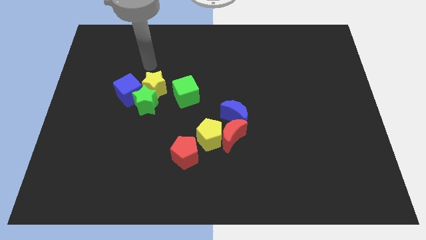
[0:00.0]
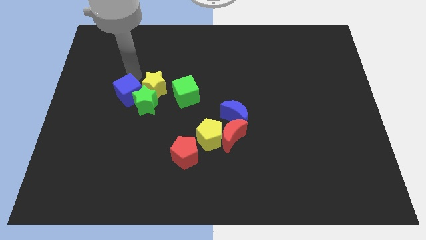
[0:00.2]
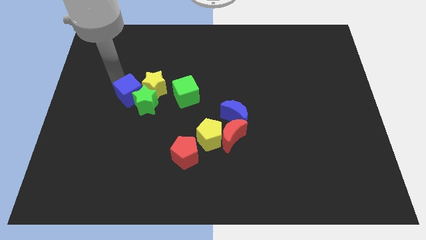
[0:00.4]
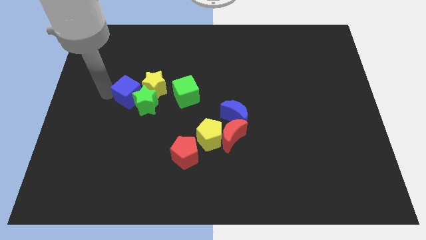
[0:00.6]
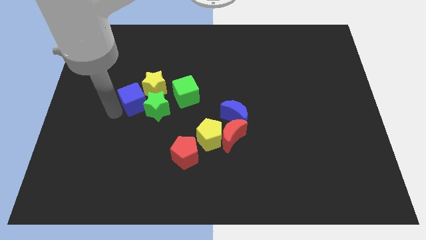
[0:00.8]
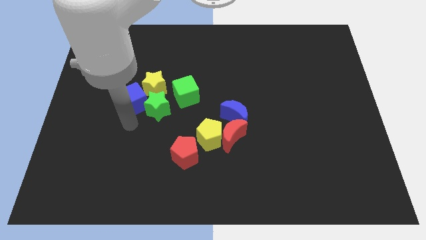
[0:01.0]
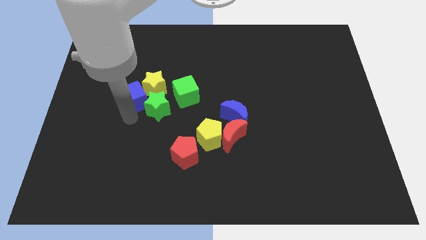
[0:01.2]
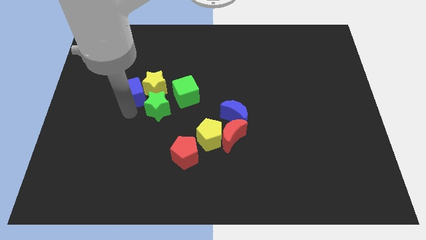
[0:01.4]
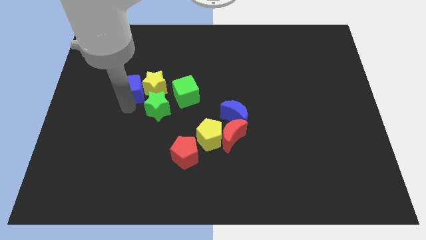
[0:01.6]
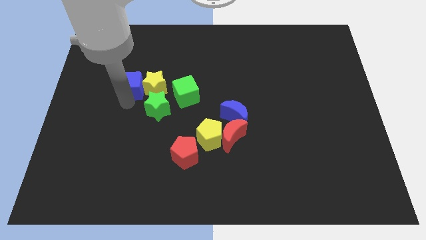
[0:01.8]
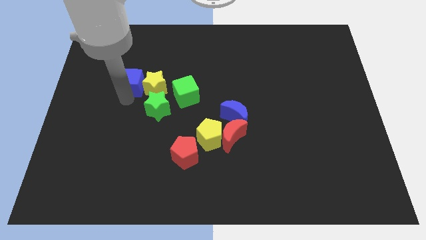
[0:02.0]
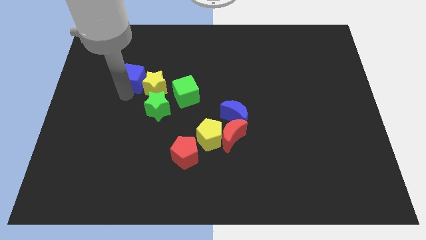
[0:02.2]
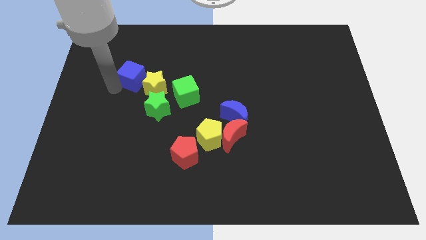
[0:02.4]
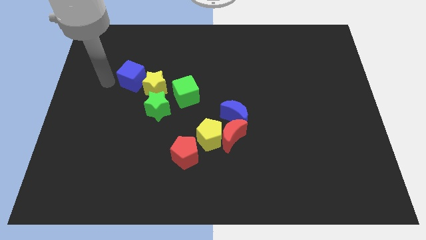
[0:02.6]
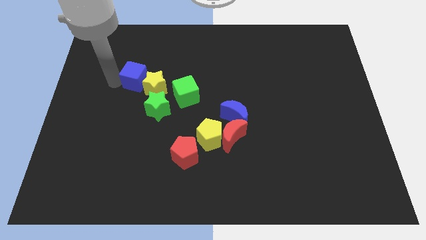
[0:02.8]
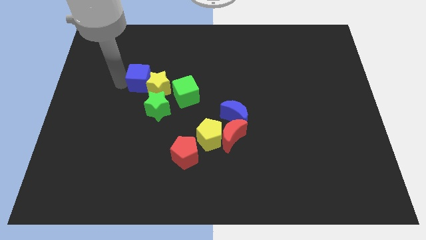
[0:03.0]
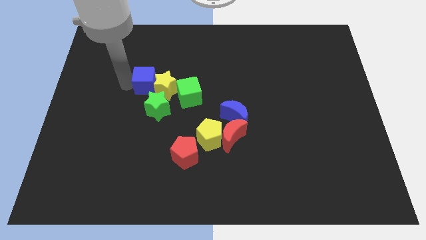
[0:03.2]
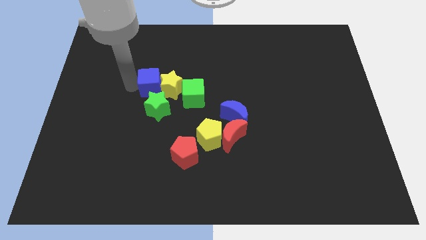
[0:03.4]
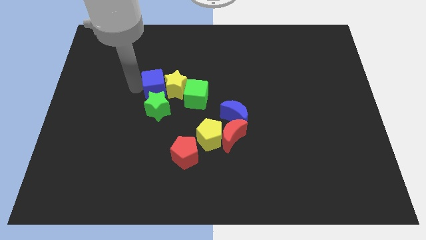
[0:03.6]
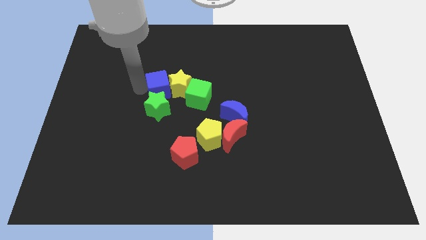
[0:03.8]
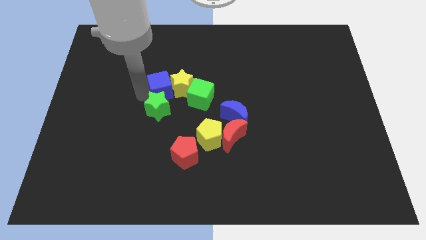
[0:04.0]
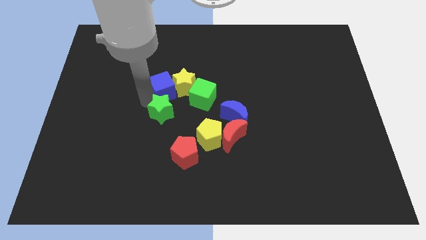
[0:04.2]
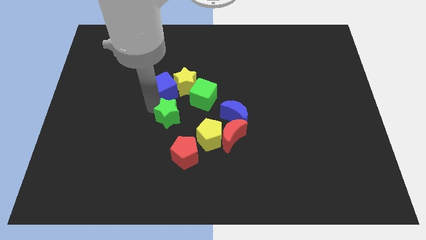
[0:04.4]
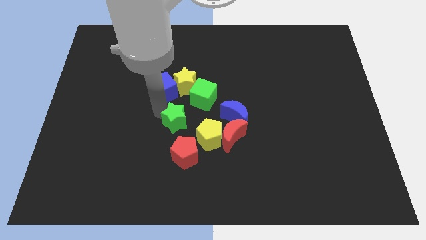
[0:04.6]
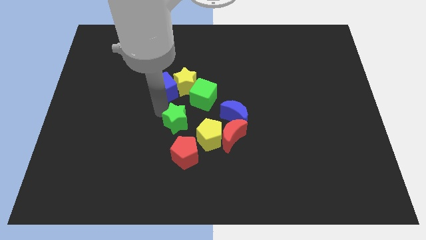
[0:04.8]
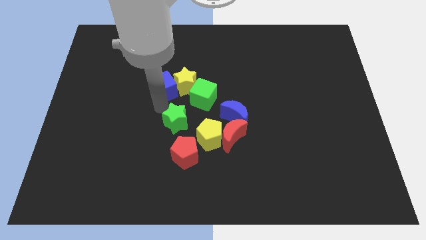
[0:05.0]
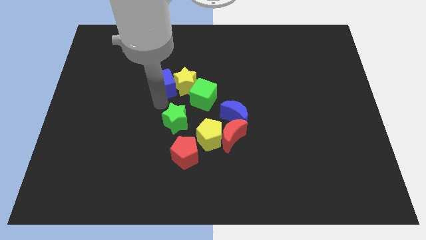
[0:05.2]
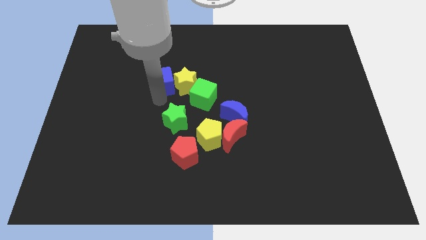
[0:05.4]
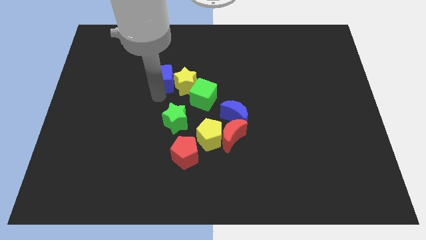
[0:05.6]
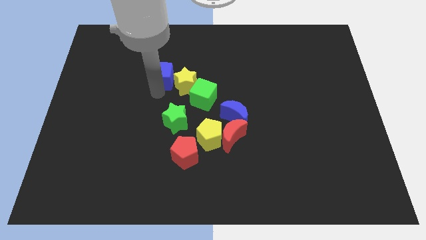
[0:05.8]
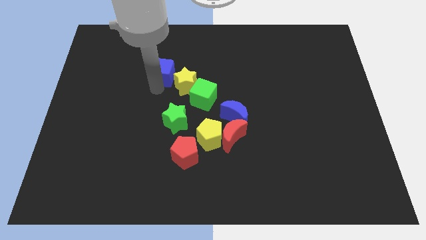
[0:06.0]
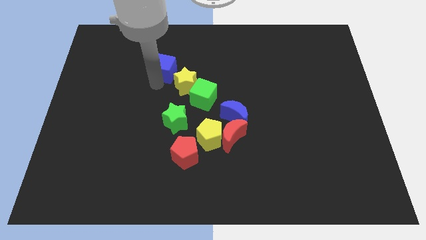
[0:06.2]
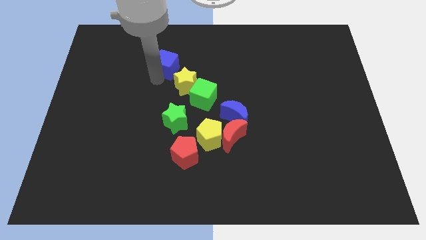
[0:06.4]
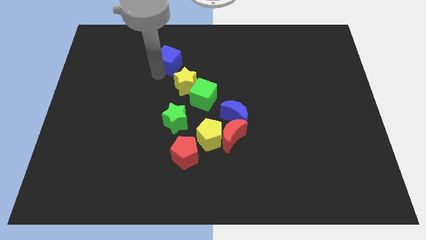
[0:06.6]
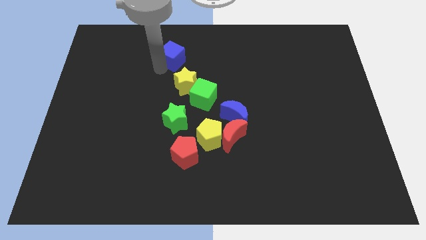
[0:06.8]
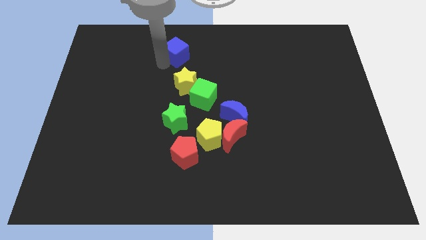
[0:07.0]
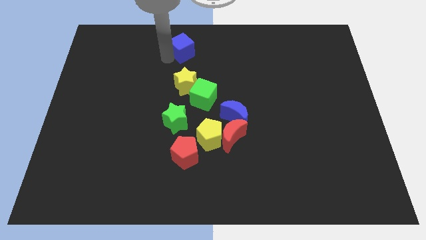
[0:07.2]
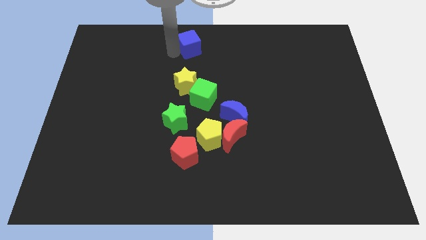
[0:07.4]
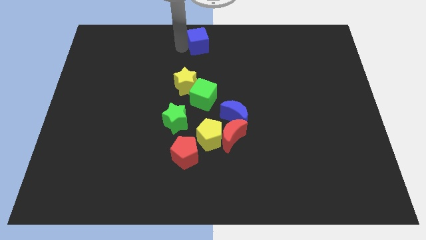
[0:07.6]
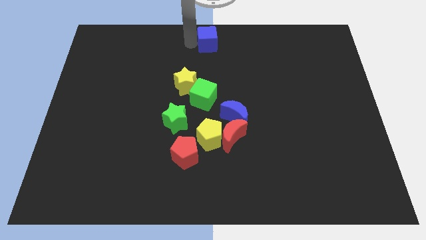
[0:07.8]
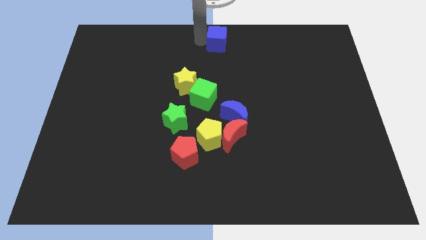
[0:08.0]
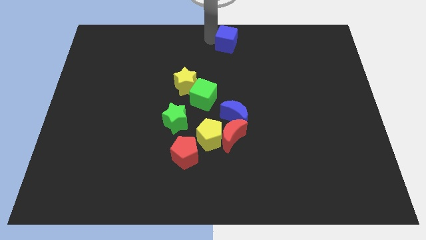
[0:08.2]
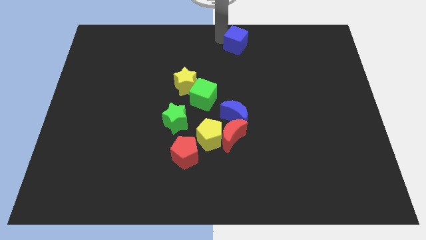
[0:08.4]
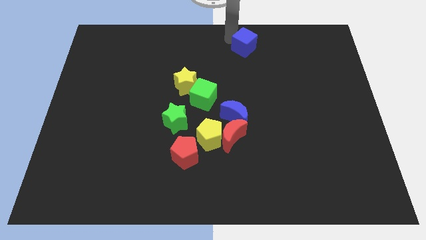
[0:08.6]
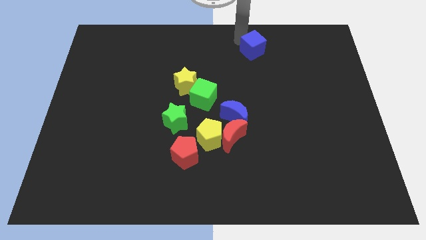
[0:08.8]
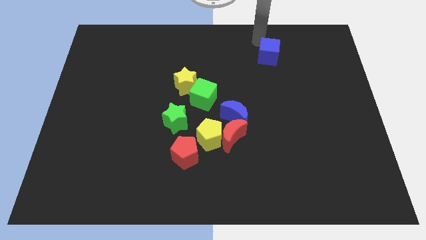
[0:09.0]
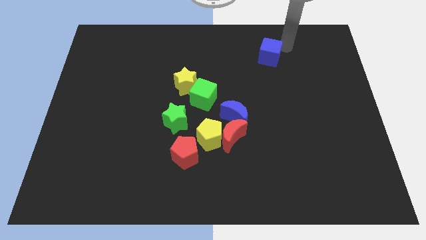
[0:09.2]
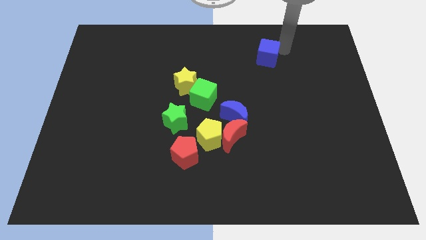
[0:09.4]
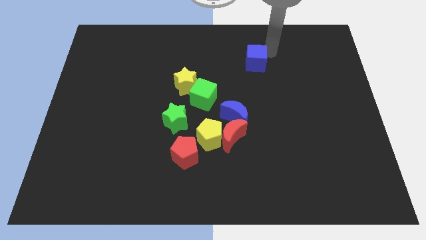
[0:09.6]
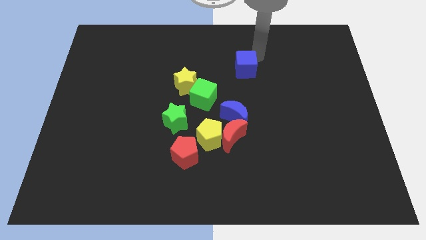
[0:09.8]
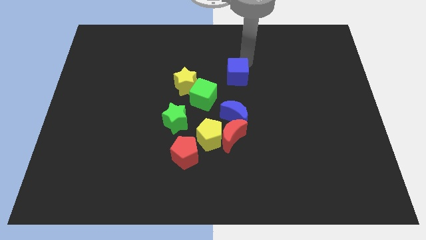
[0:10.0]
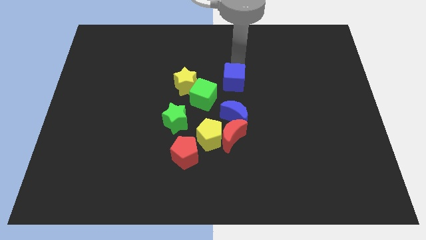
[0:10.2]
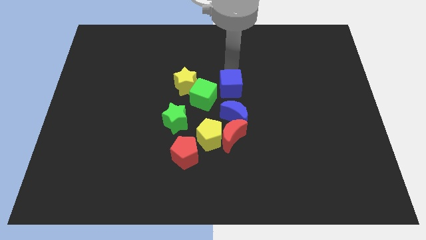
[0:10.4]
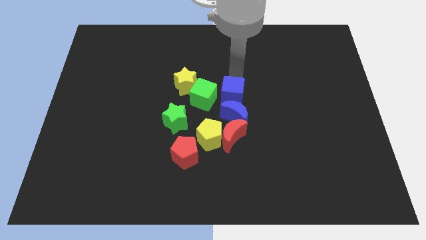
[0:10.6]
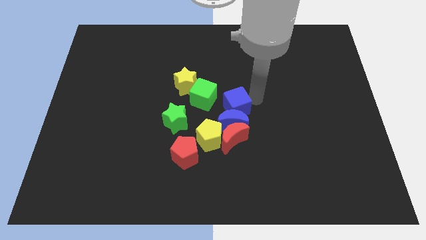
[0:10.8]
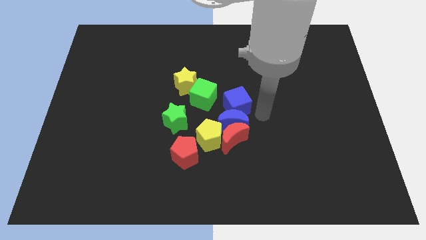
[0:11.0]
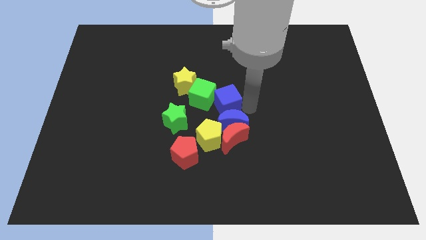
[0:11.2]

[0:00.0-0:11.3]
move the blue cube close to the green cube
